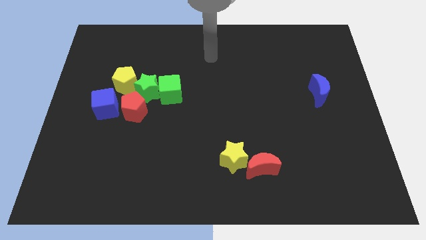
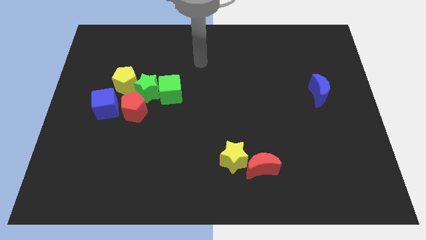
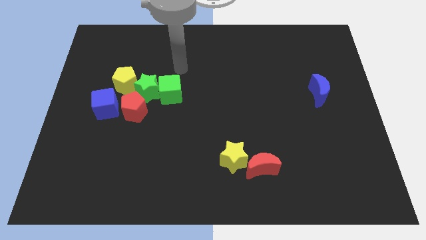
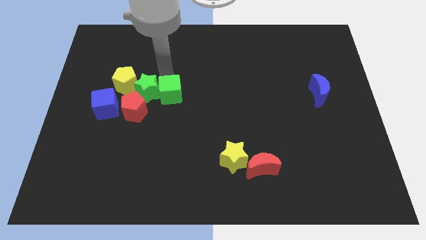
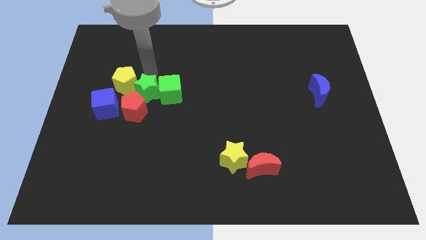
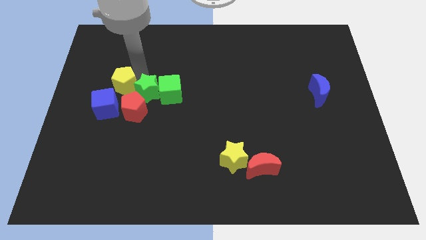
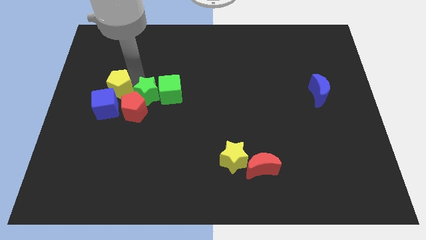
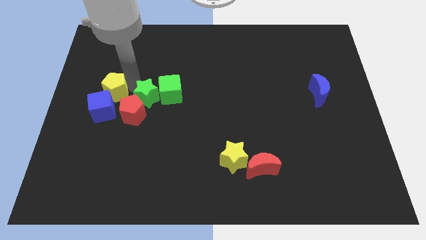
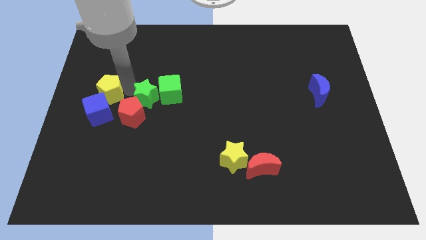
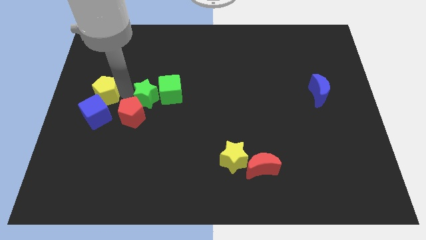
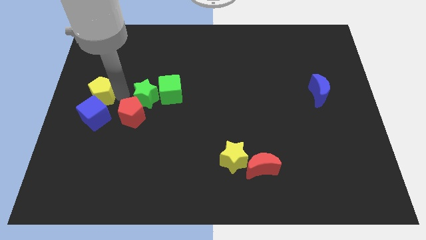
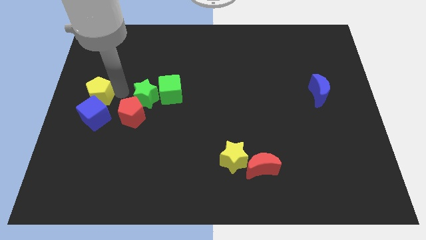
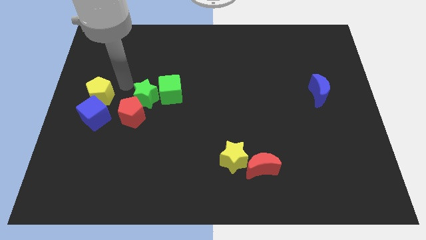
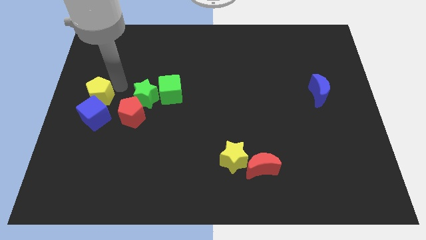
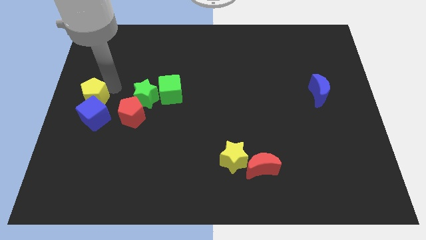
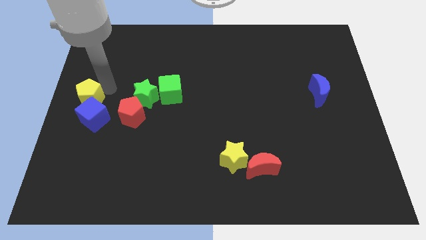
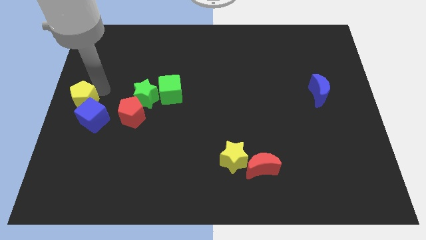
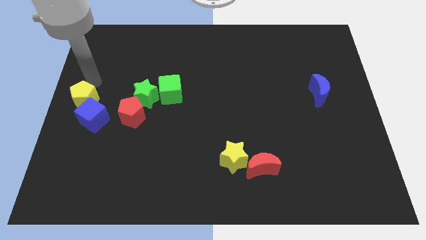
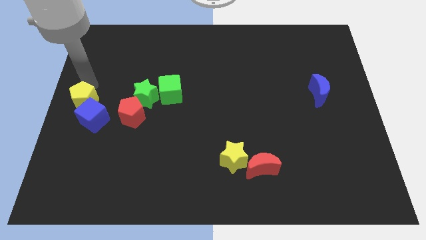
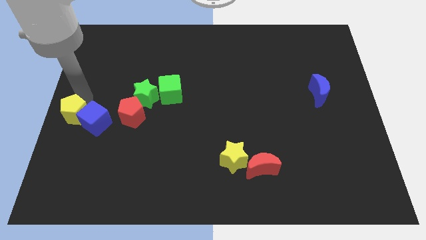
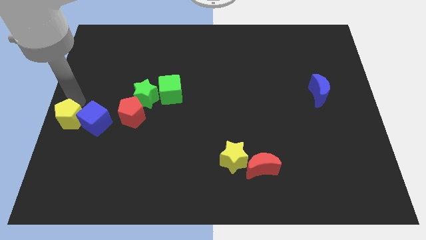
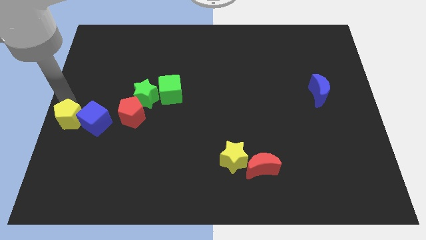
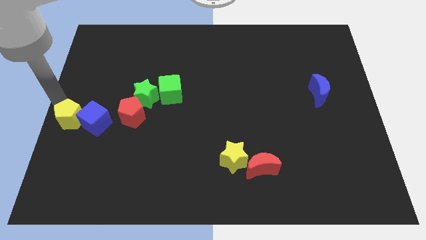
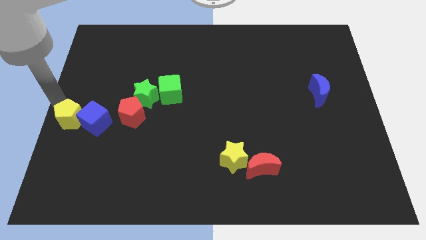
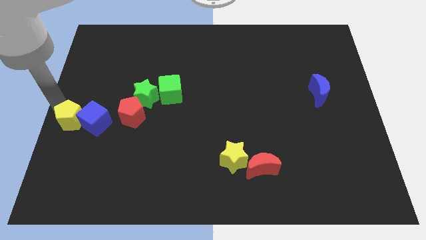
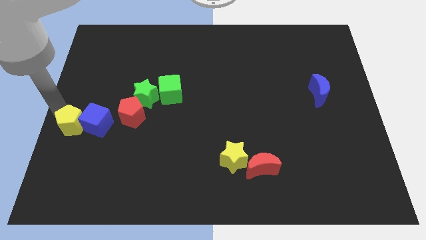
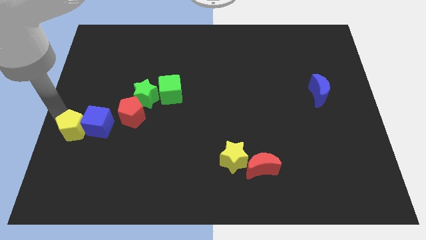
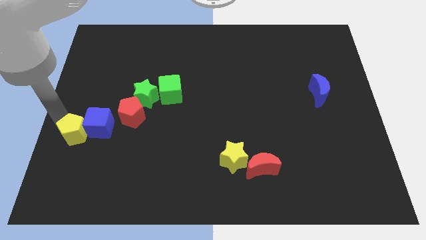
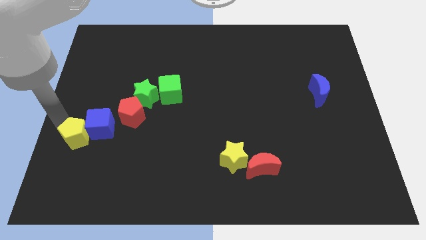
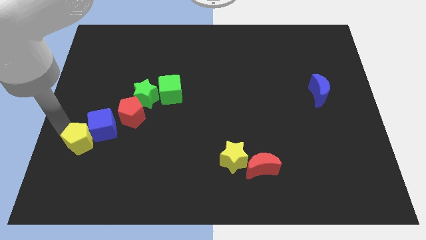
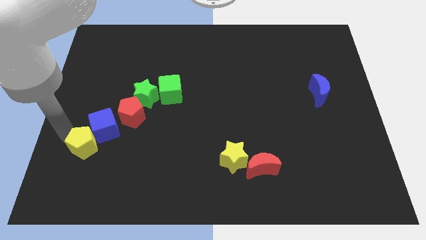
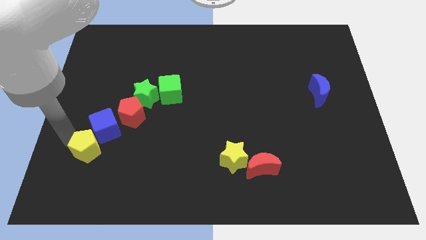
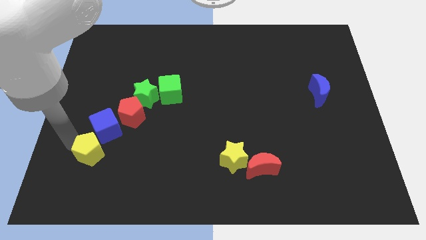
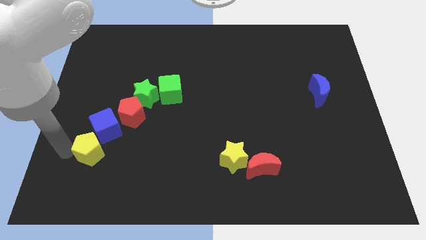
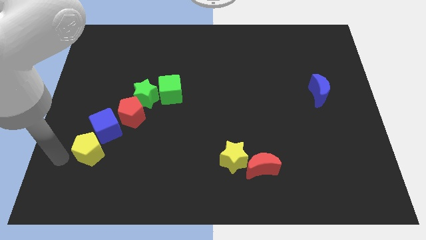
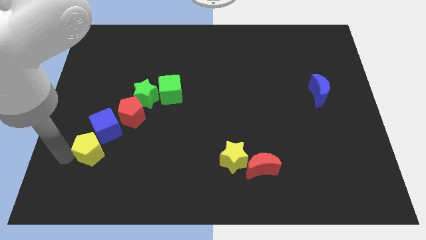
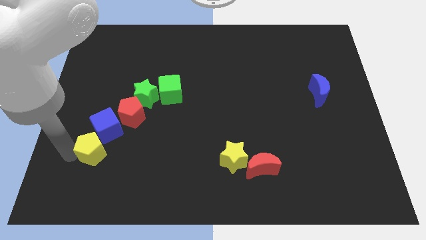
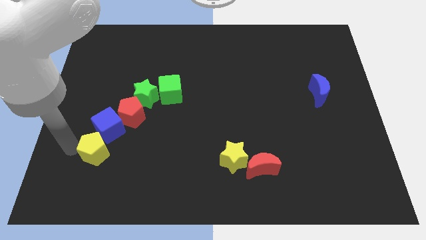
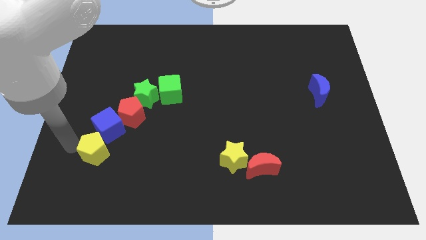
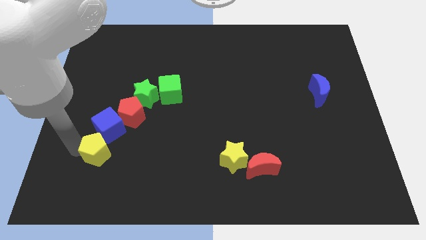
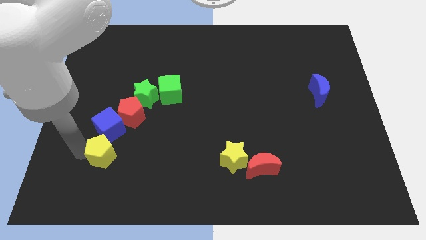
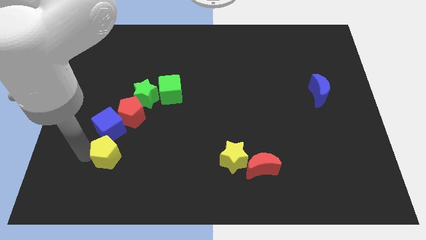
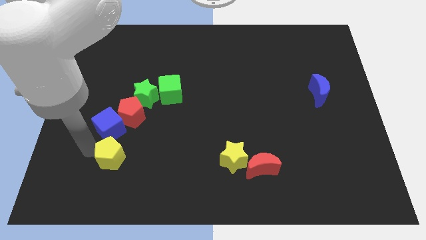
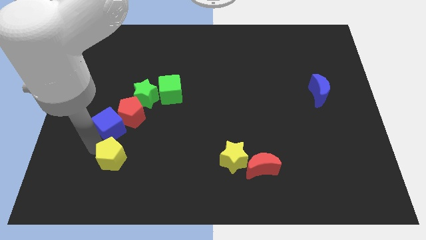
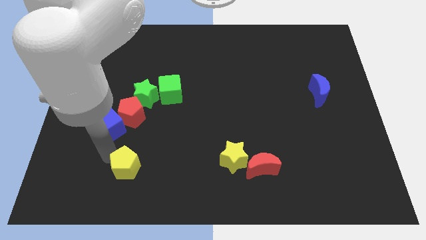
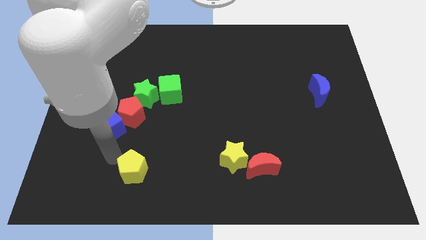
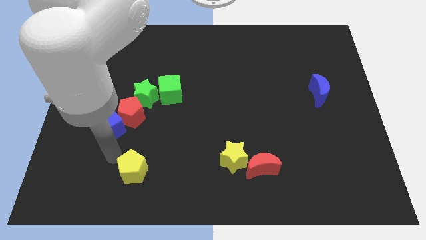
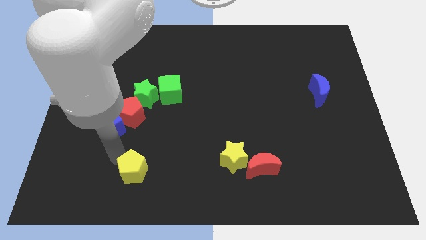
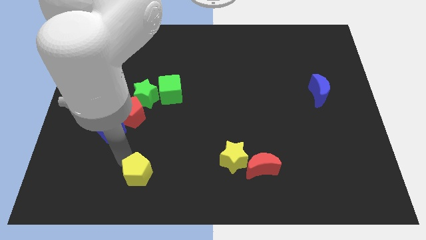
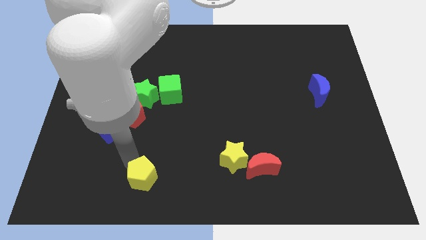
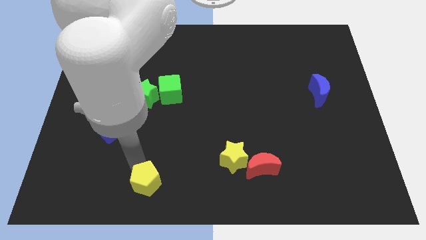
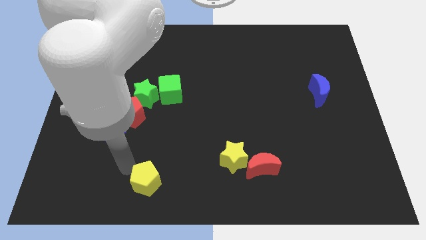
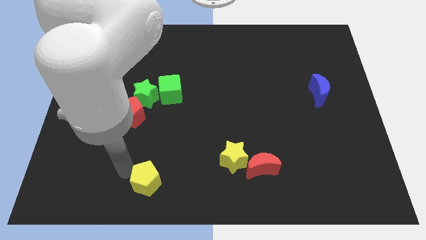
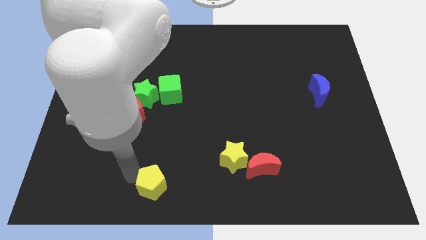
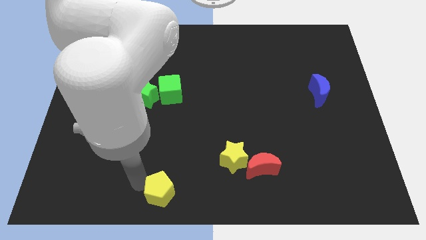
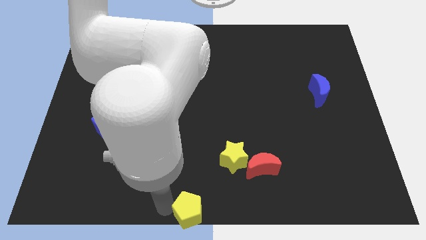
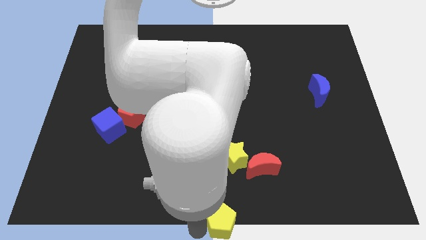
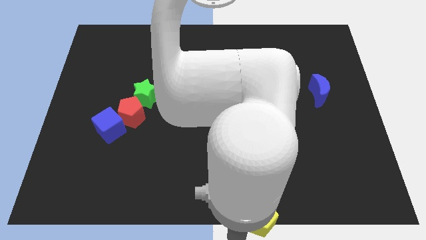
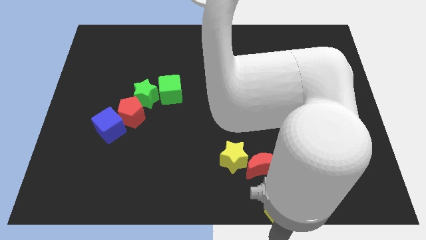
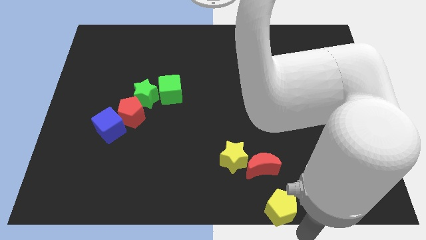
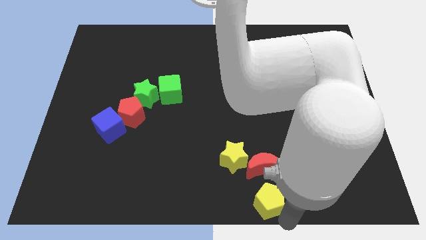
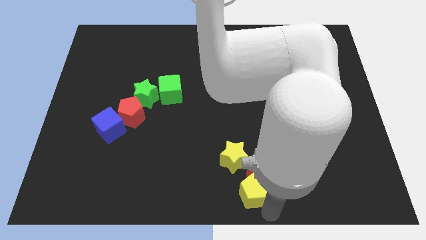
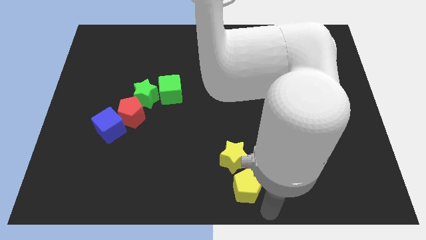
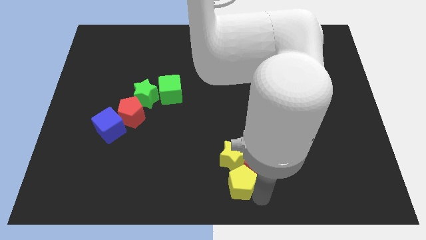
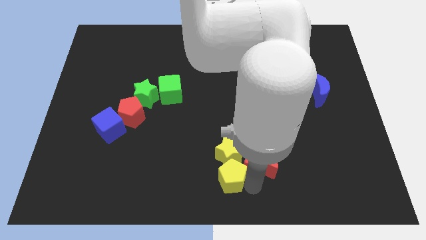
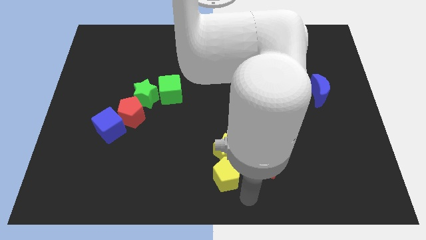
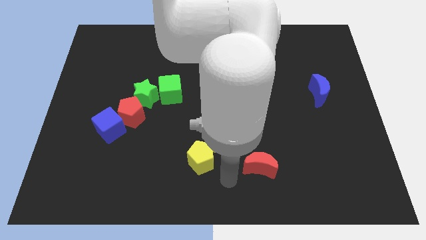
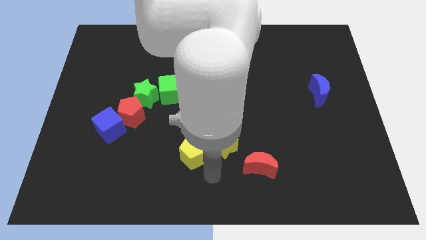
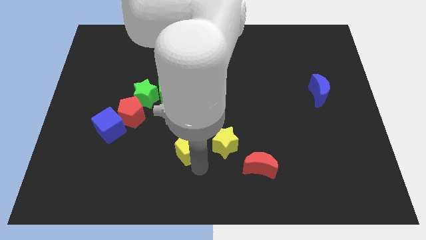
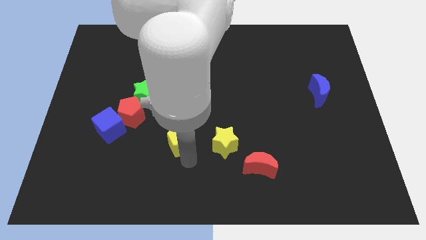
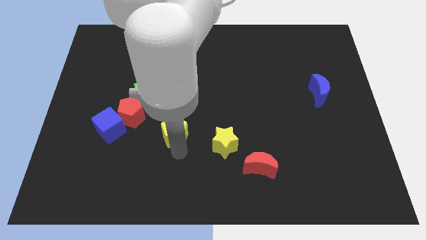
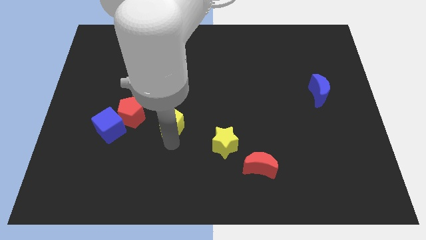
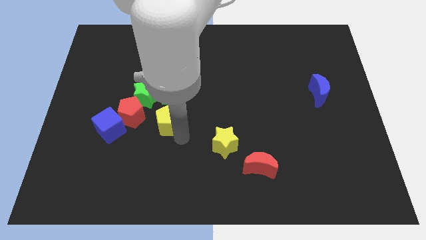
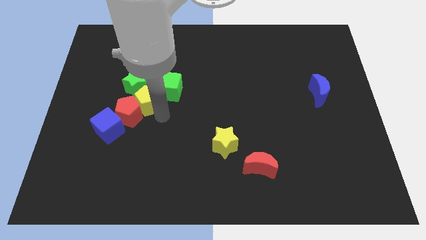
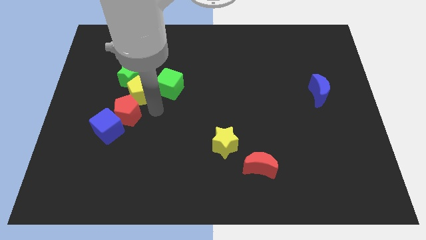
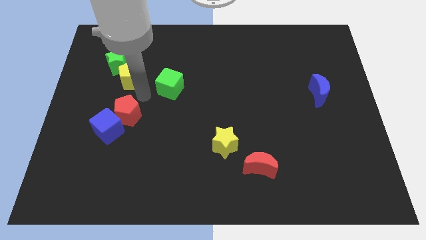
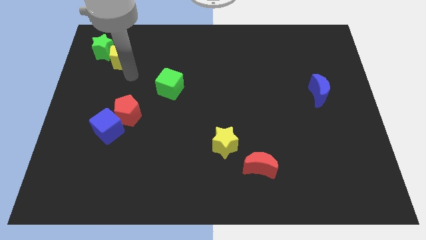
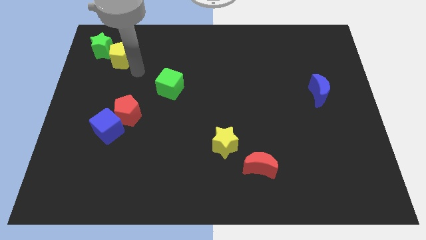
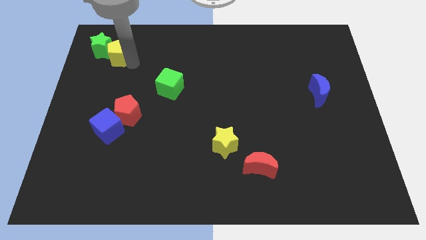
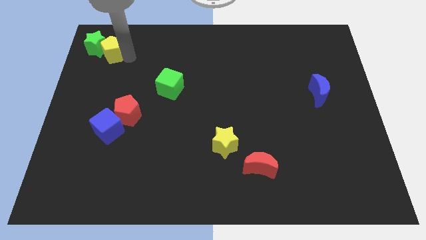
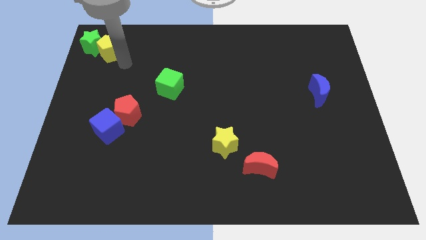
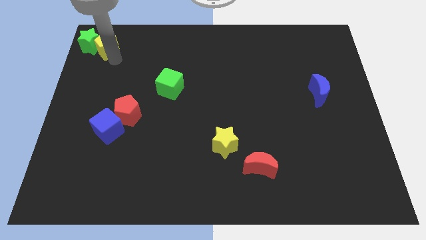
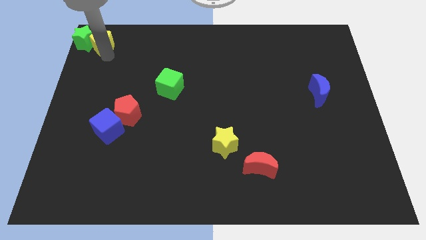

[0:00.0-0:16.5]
slide the yellow pentagon to the upper left corner
